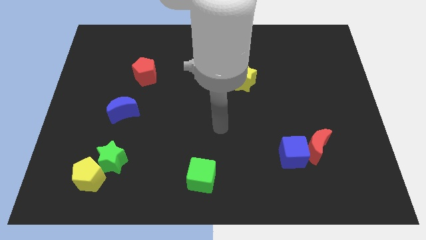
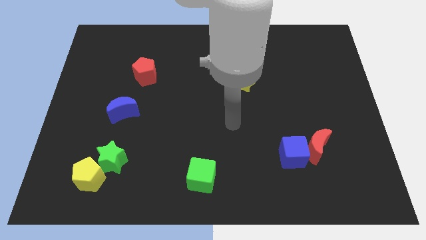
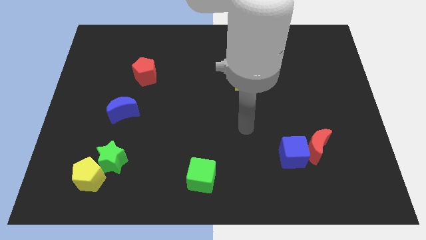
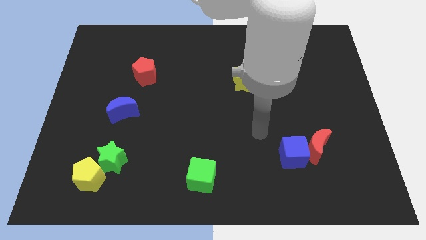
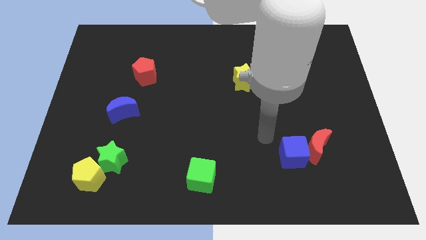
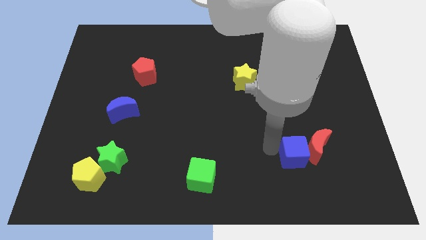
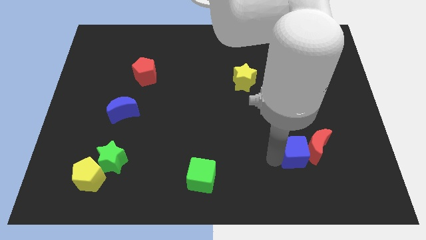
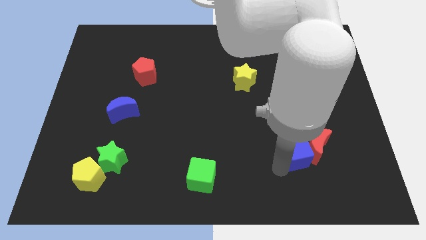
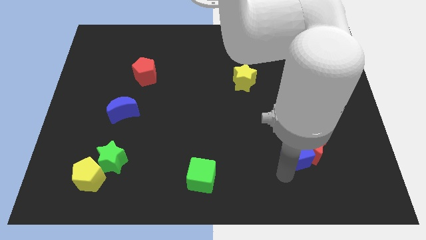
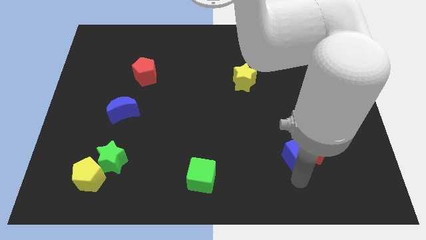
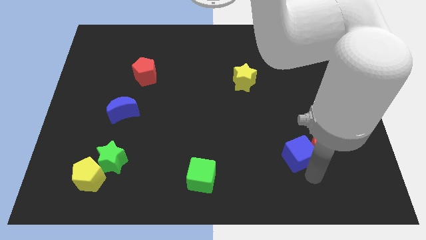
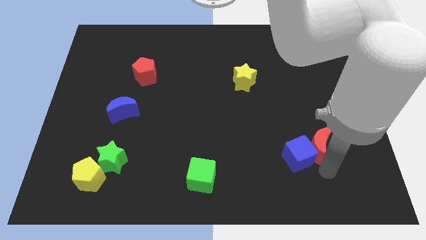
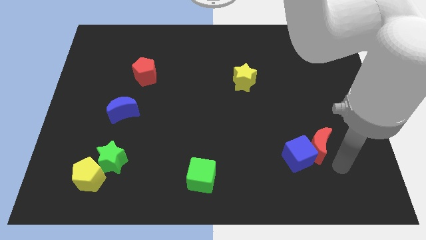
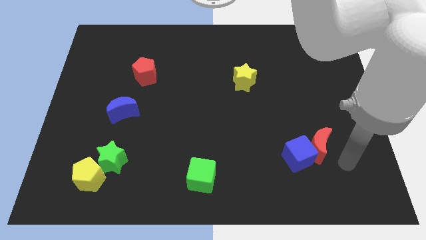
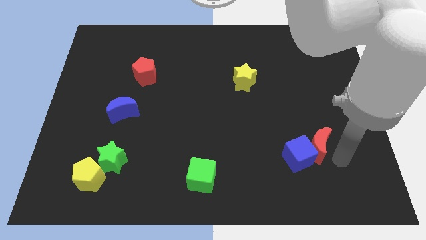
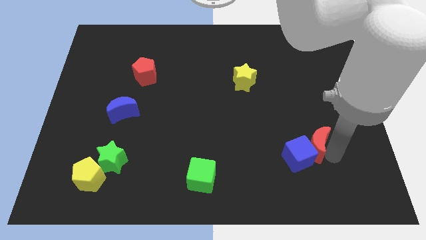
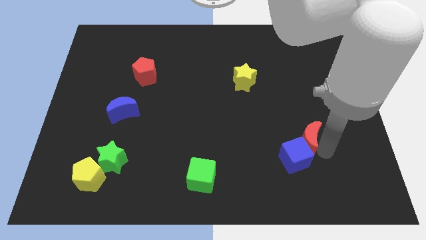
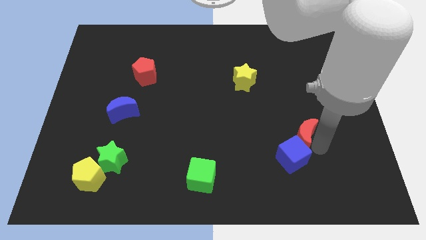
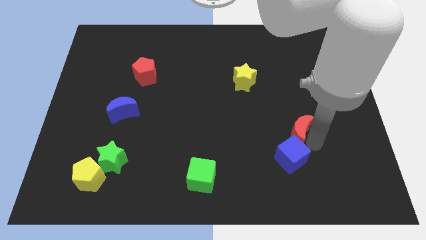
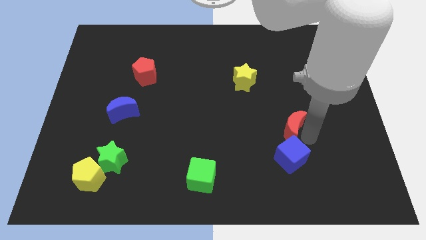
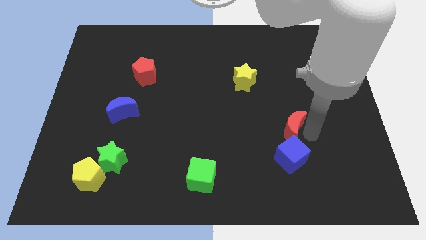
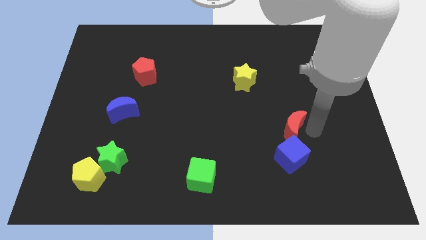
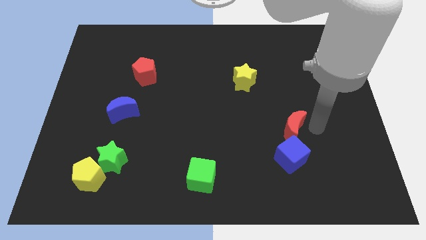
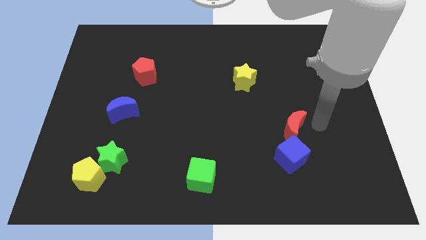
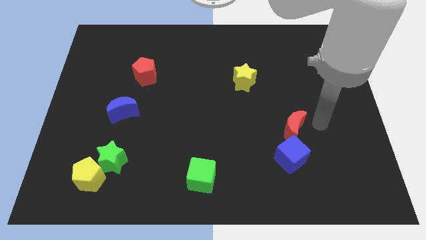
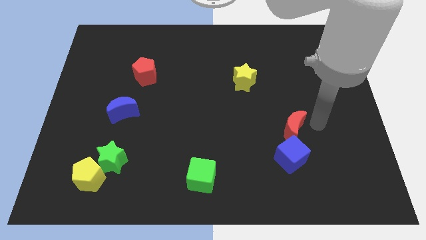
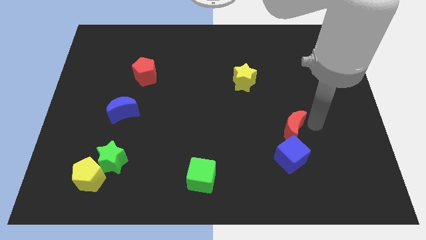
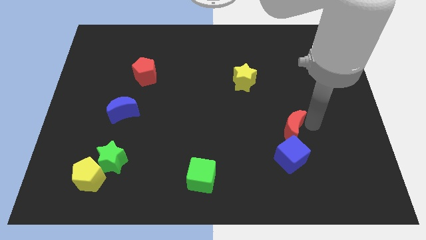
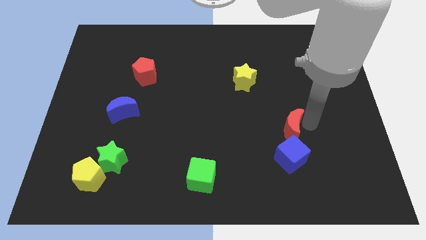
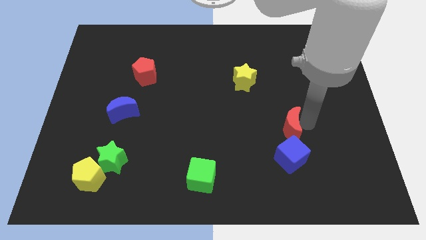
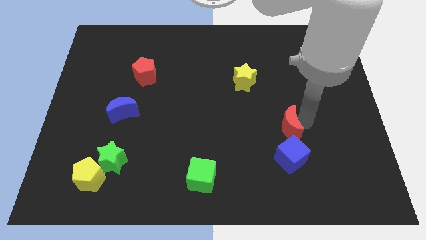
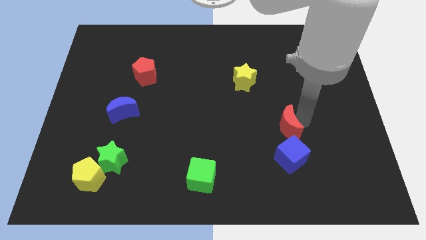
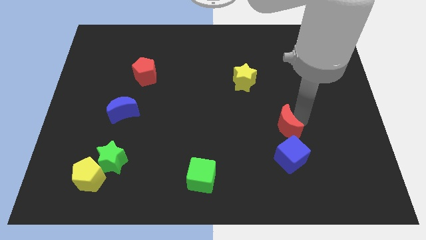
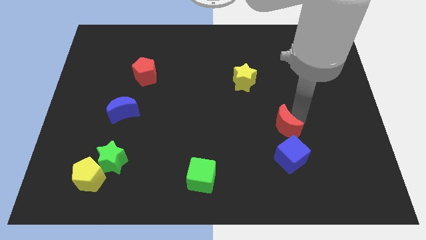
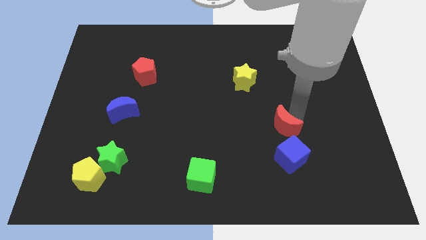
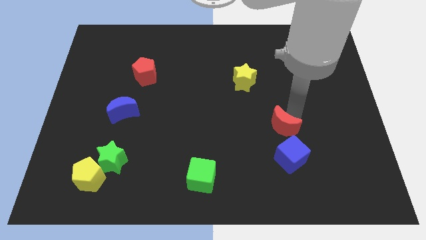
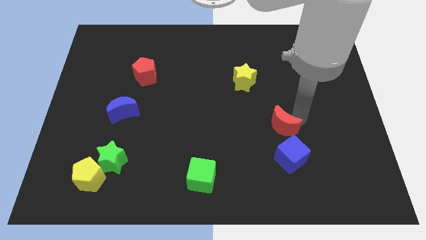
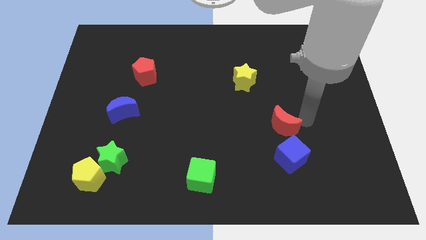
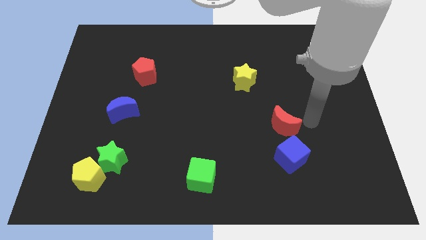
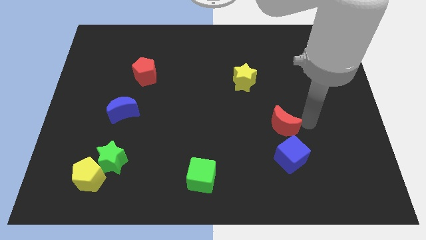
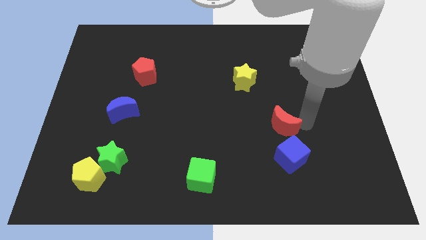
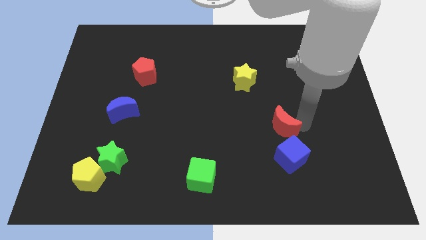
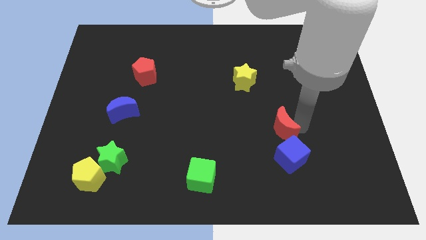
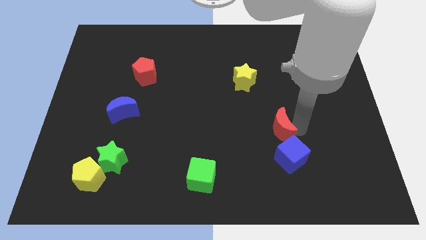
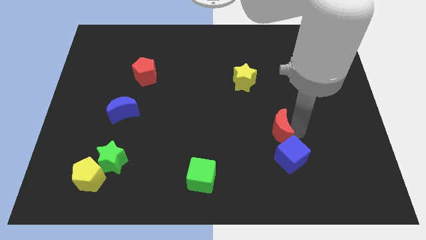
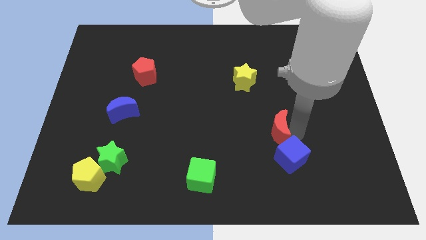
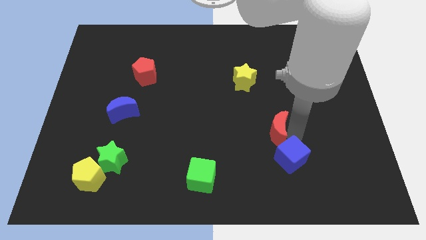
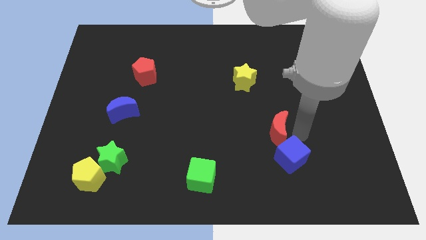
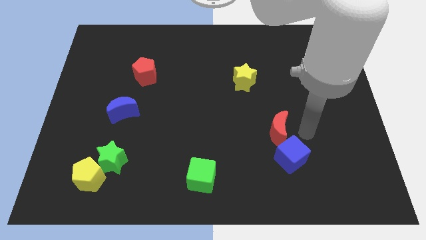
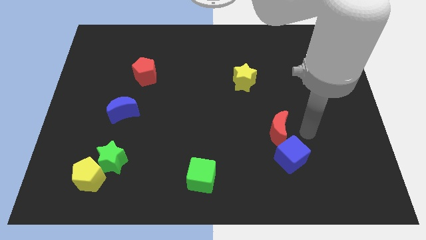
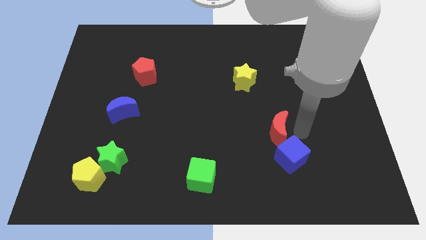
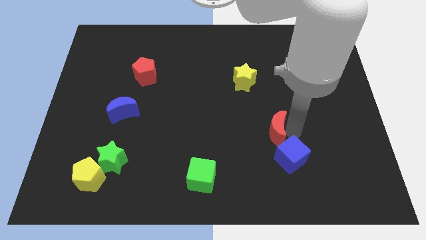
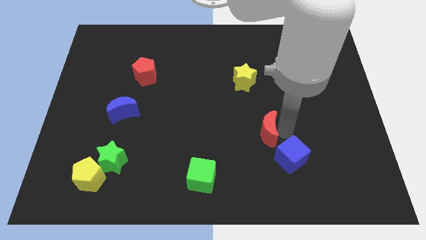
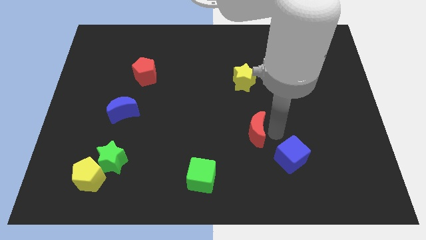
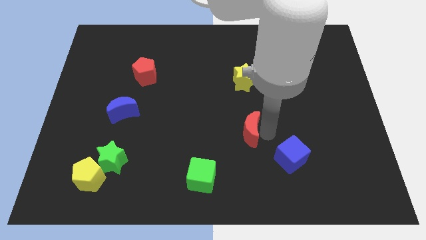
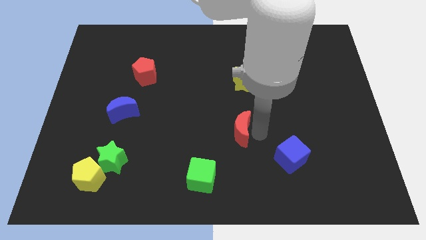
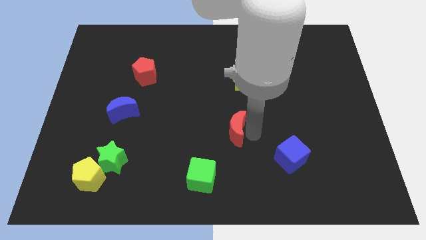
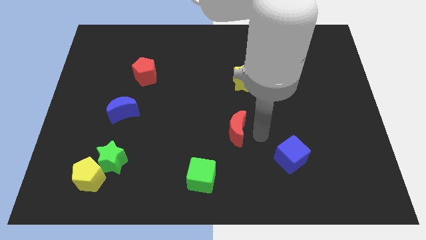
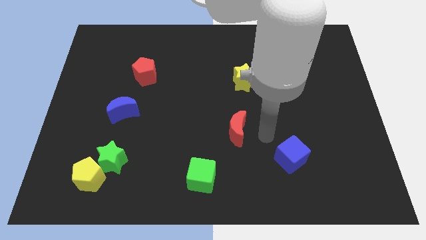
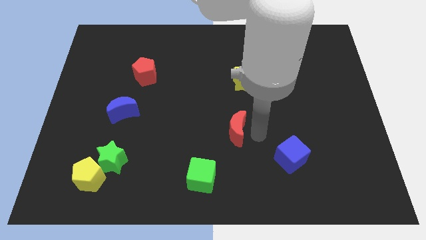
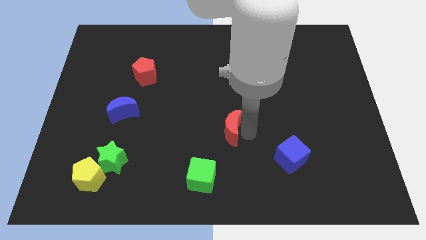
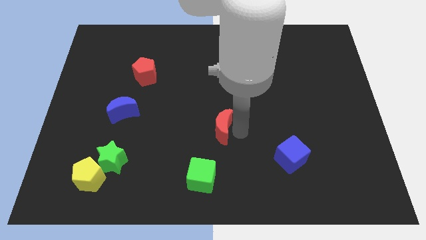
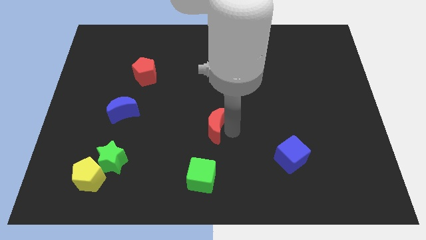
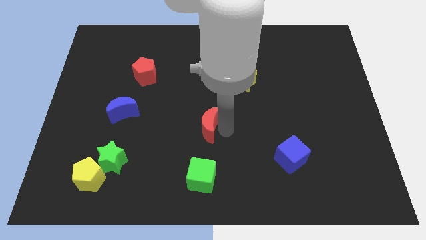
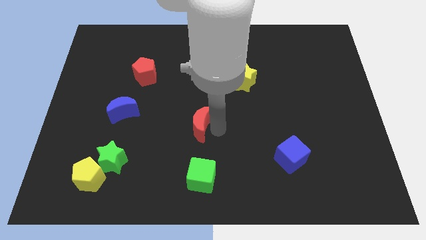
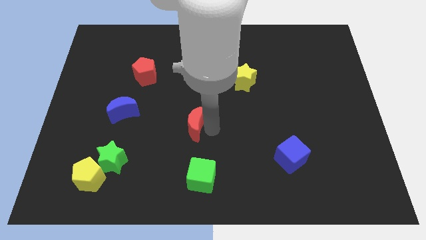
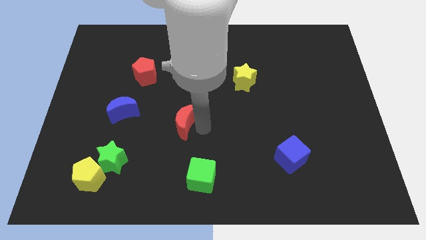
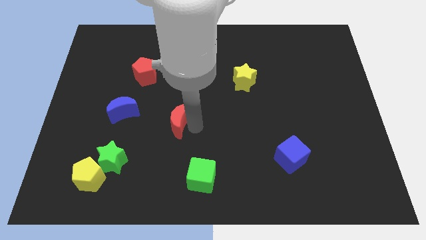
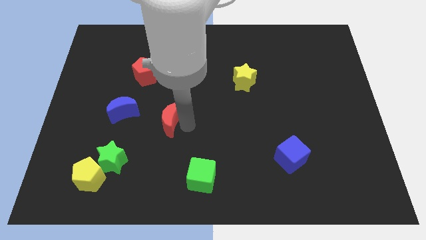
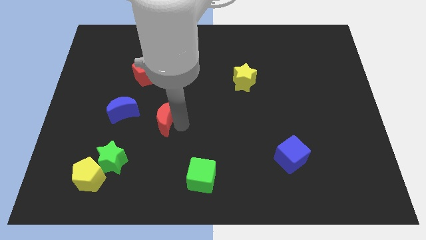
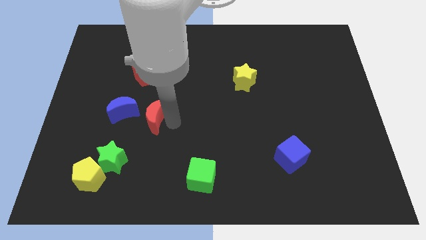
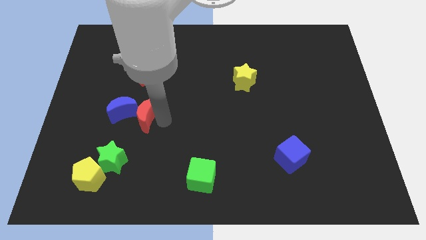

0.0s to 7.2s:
move the red moon towards the blue moon
